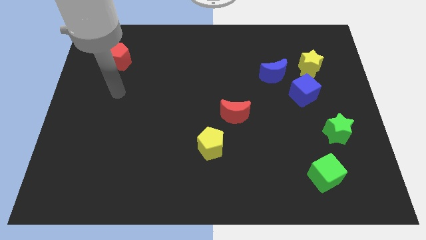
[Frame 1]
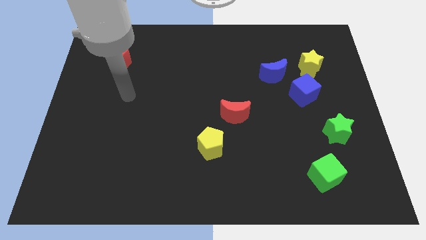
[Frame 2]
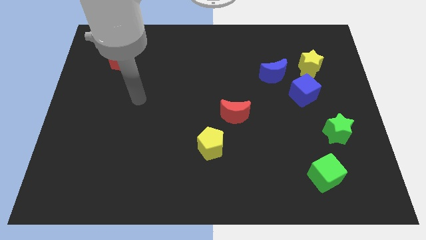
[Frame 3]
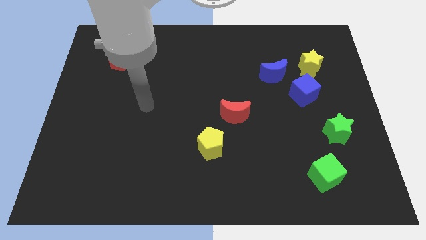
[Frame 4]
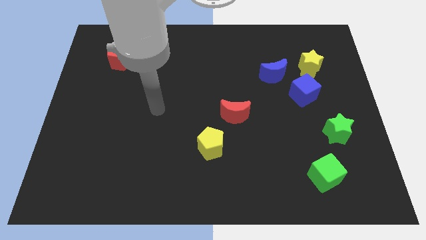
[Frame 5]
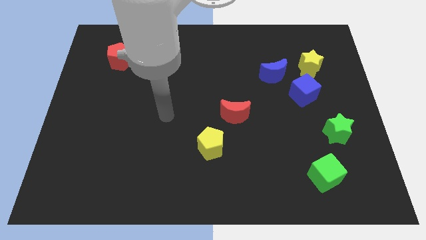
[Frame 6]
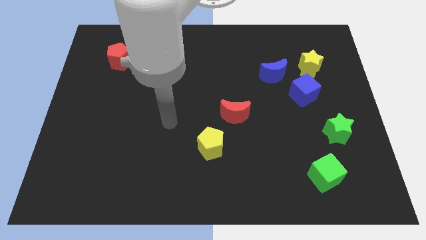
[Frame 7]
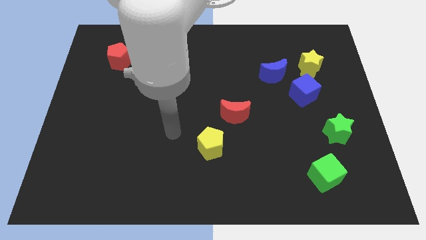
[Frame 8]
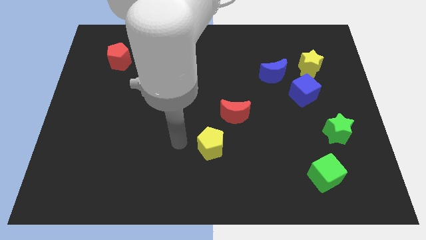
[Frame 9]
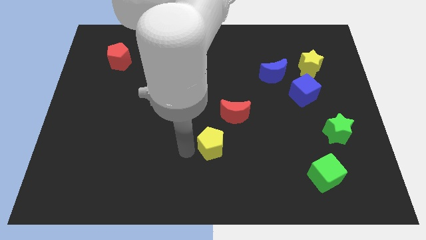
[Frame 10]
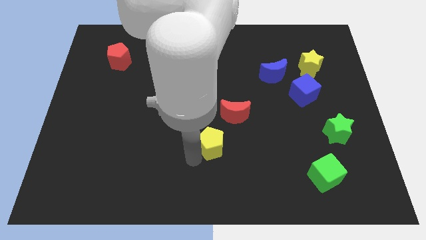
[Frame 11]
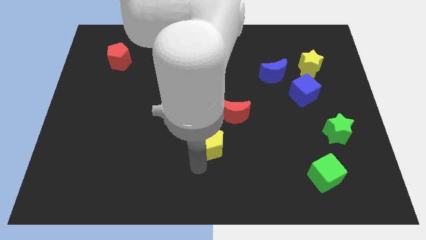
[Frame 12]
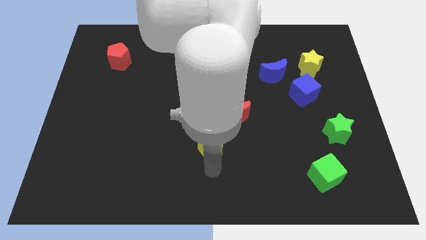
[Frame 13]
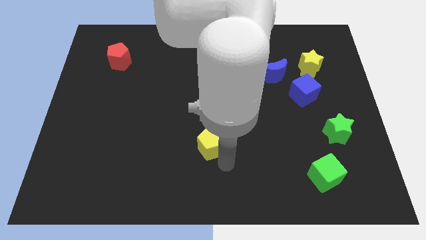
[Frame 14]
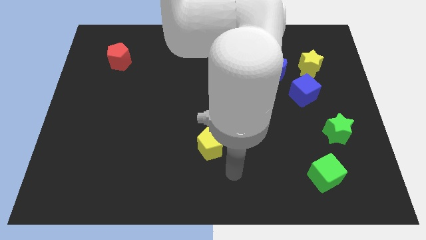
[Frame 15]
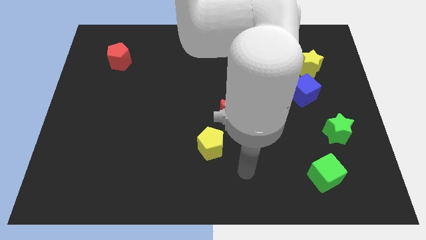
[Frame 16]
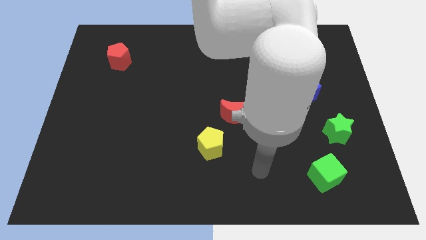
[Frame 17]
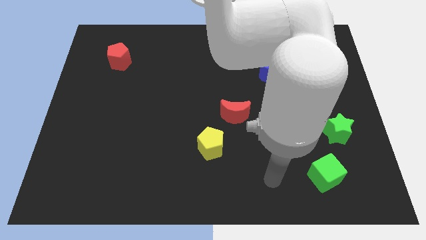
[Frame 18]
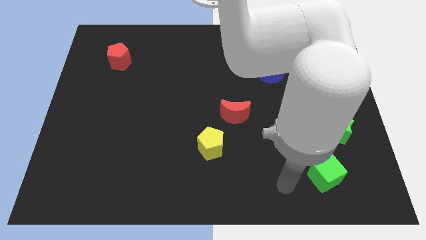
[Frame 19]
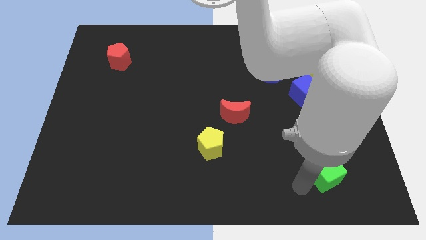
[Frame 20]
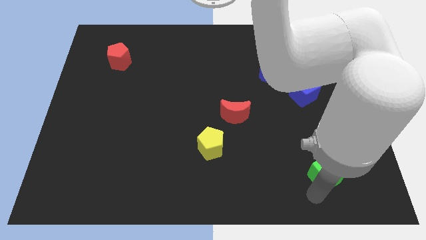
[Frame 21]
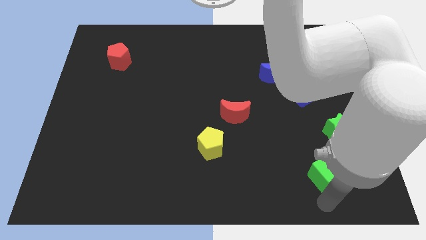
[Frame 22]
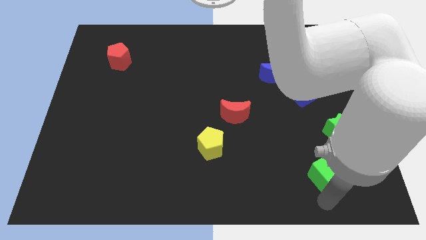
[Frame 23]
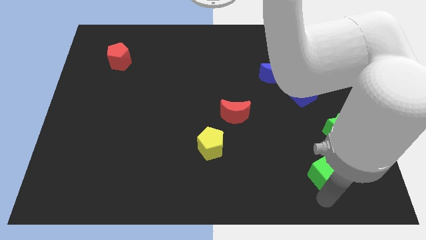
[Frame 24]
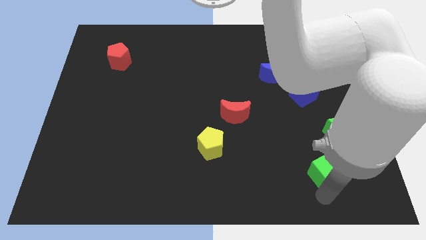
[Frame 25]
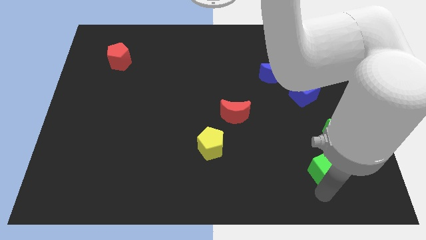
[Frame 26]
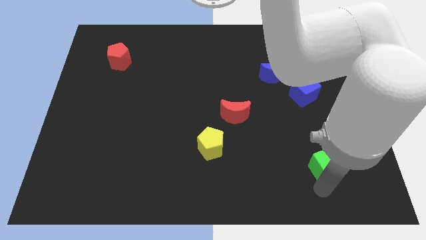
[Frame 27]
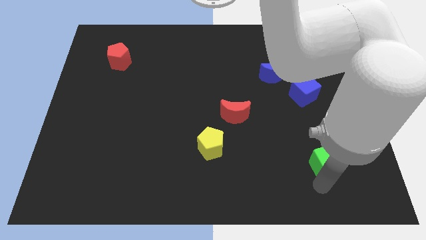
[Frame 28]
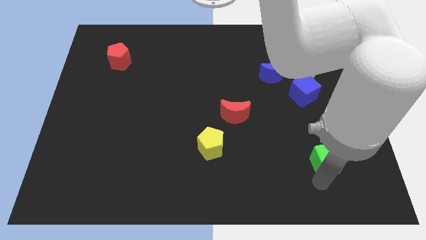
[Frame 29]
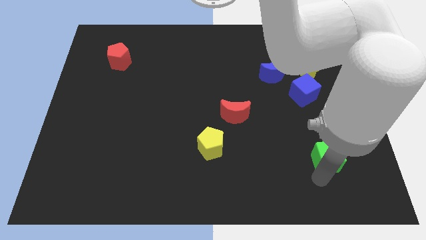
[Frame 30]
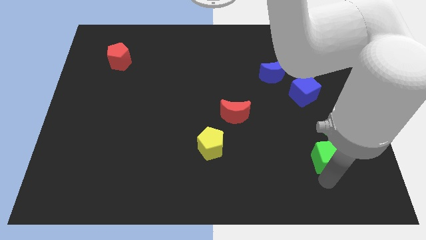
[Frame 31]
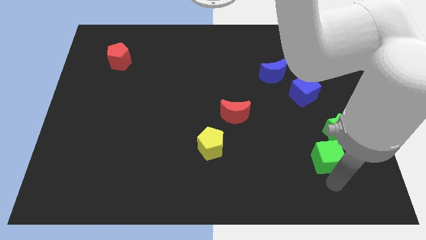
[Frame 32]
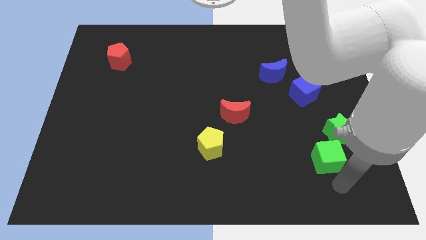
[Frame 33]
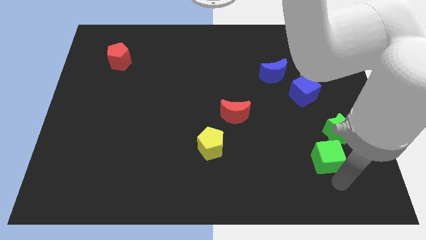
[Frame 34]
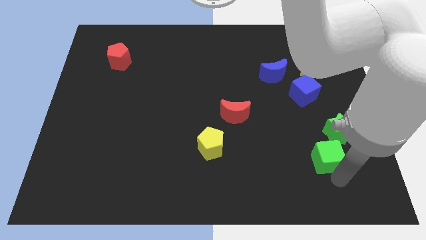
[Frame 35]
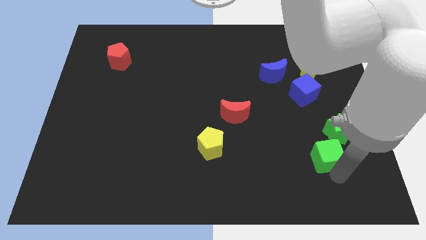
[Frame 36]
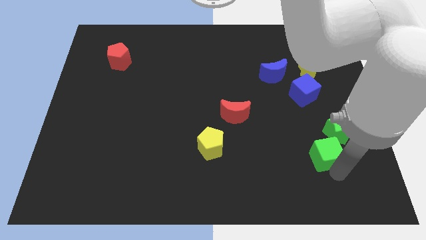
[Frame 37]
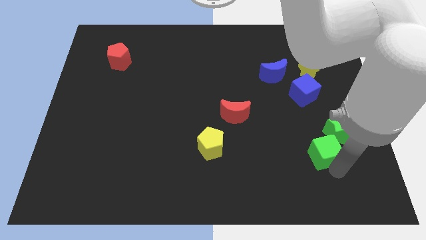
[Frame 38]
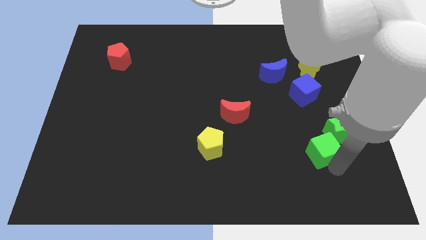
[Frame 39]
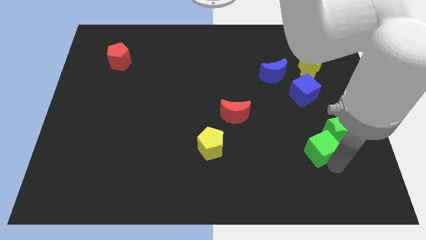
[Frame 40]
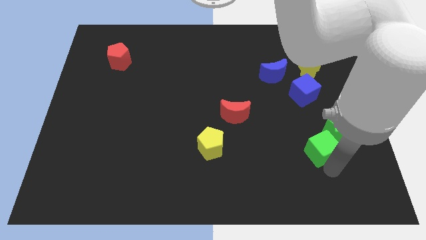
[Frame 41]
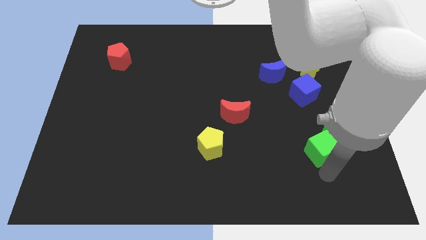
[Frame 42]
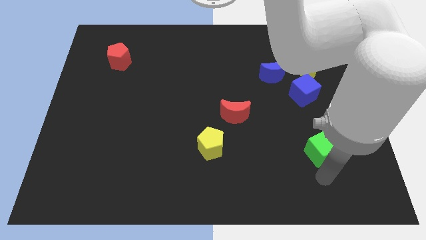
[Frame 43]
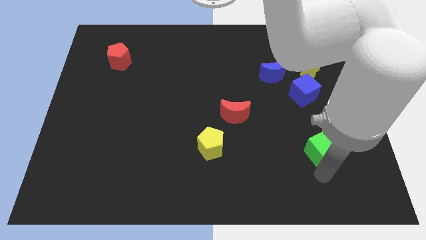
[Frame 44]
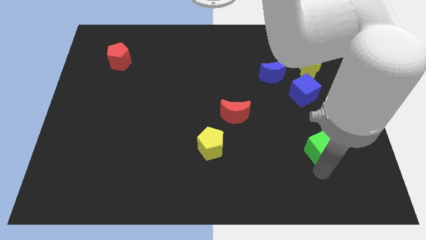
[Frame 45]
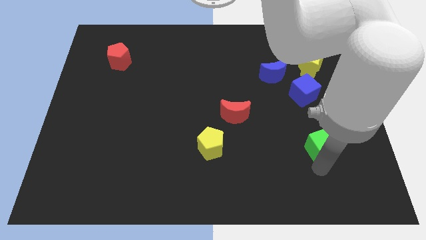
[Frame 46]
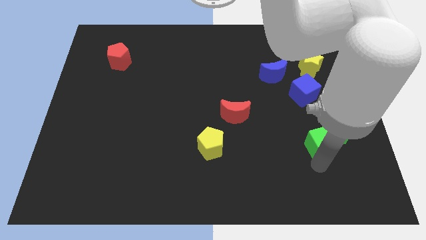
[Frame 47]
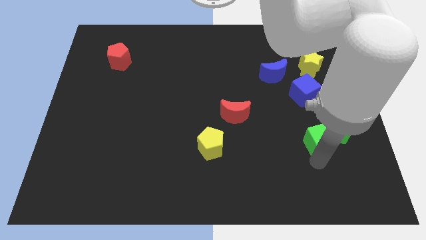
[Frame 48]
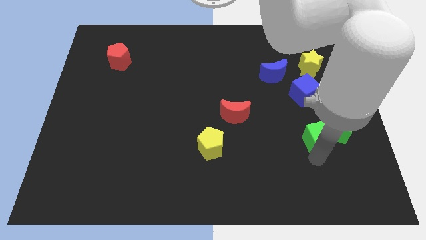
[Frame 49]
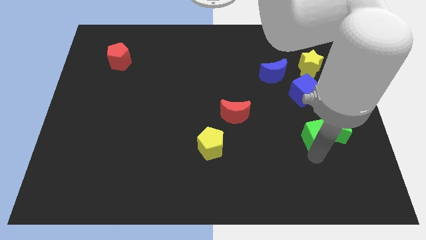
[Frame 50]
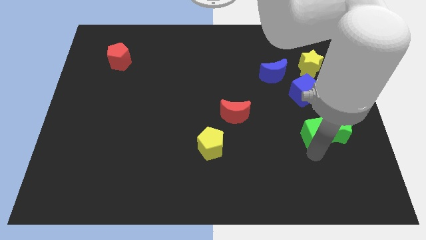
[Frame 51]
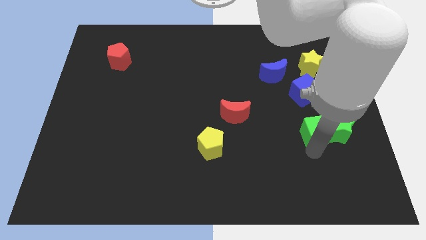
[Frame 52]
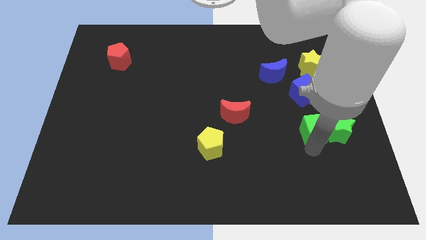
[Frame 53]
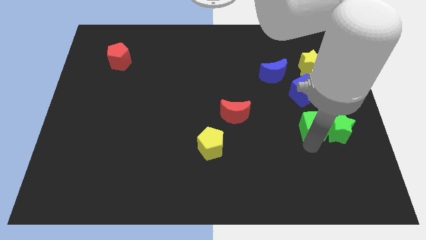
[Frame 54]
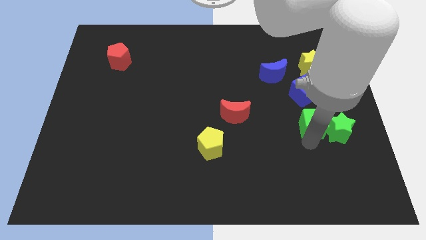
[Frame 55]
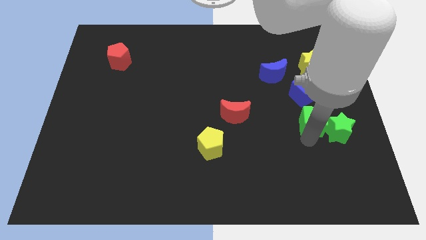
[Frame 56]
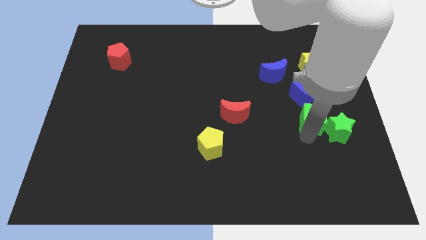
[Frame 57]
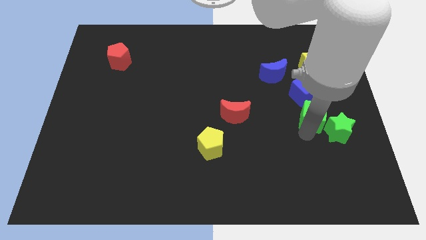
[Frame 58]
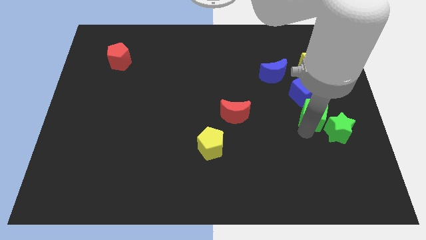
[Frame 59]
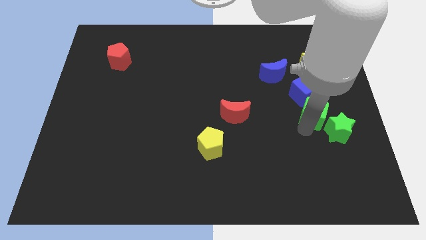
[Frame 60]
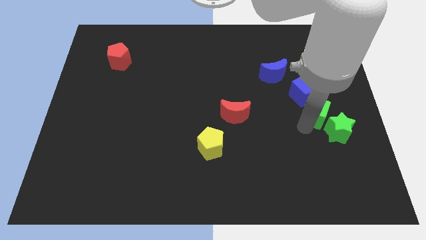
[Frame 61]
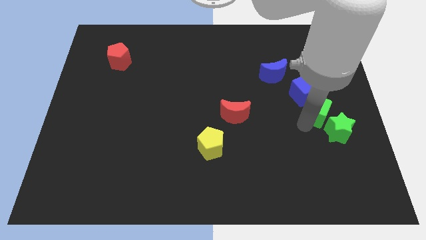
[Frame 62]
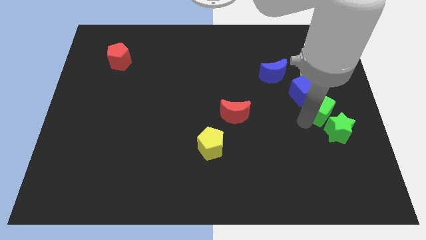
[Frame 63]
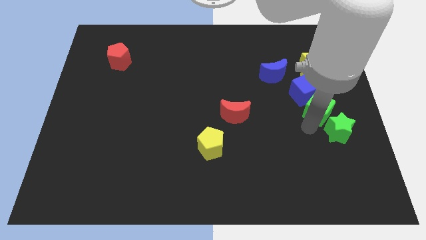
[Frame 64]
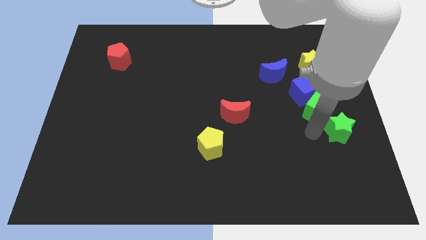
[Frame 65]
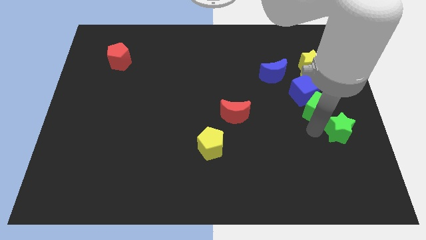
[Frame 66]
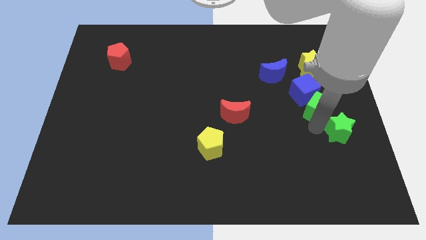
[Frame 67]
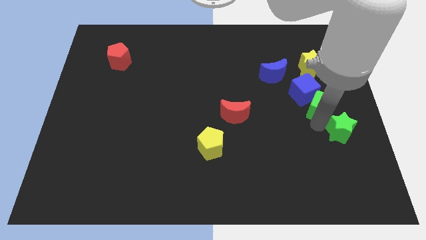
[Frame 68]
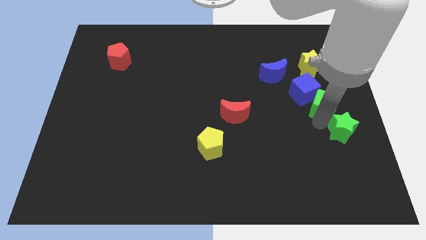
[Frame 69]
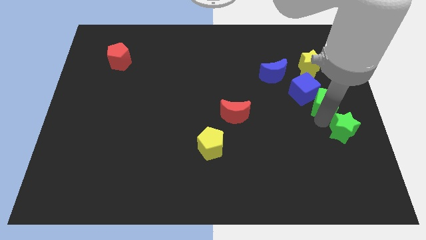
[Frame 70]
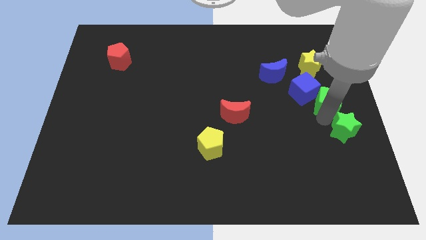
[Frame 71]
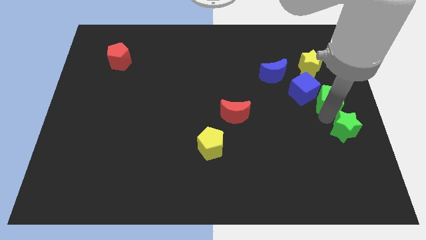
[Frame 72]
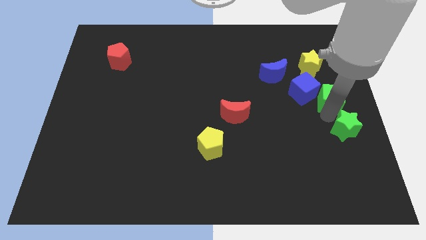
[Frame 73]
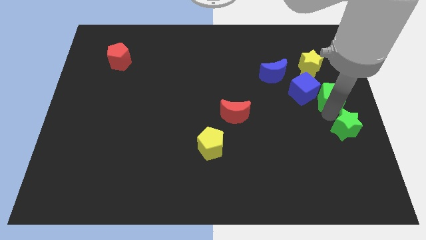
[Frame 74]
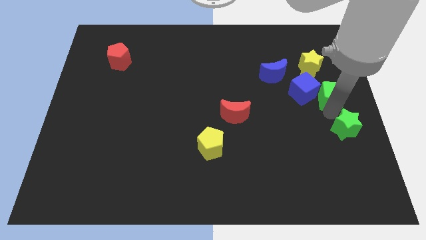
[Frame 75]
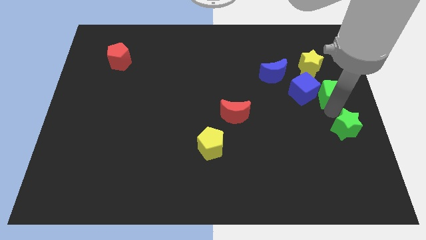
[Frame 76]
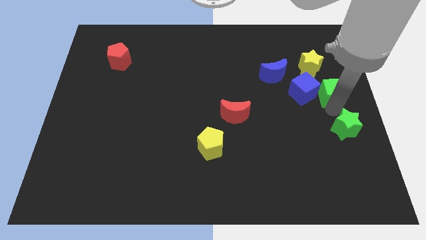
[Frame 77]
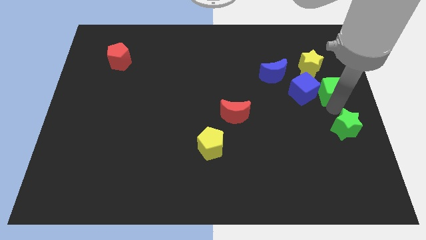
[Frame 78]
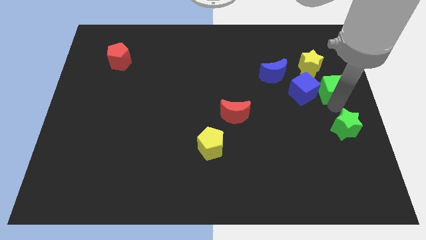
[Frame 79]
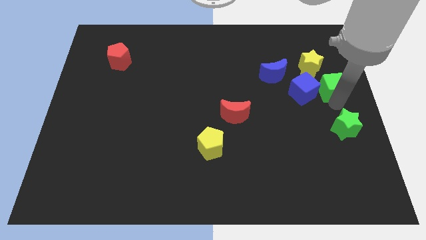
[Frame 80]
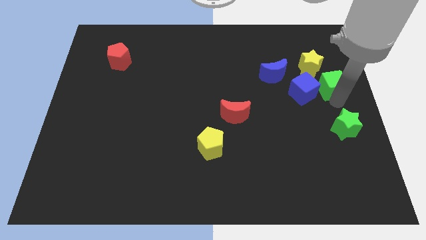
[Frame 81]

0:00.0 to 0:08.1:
put the green cube right of the blue moon
